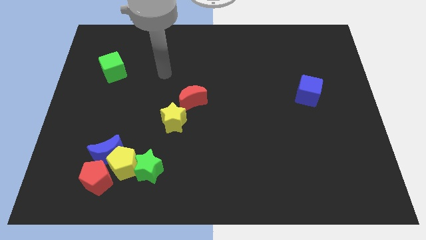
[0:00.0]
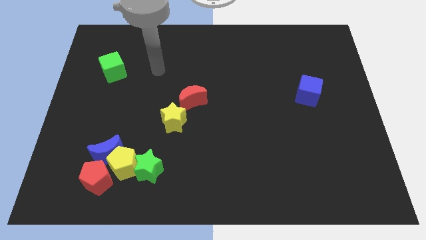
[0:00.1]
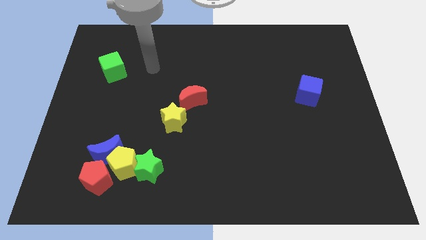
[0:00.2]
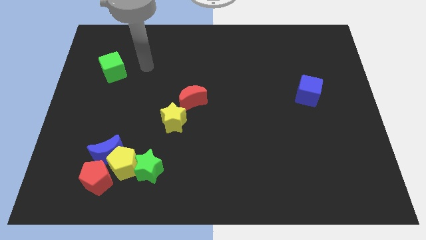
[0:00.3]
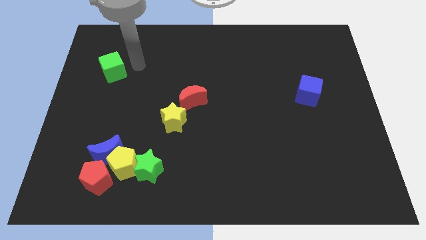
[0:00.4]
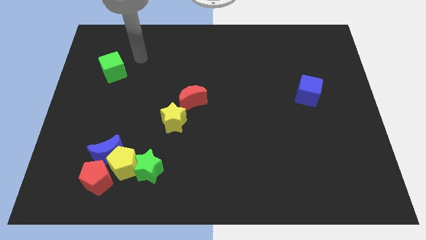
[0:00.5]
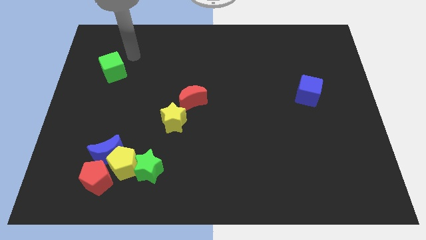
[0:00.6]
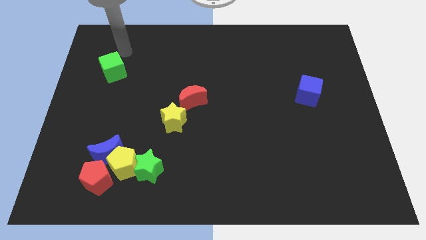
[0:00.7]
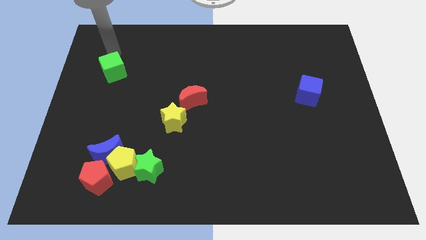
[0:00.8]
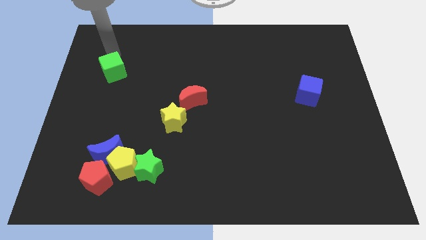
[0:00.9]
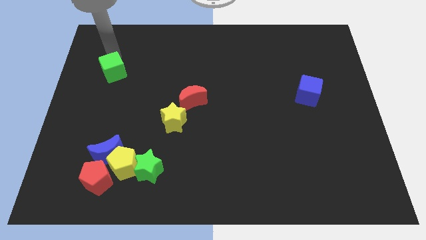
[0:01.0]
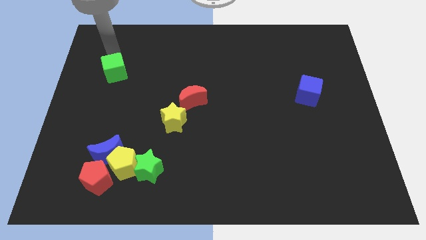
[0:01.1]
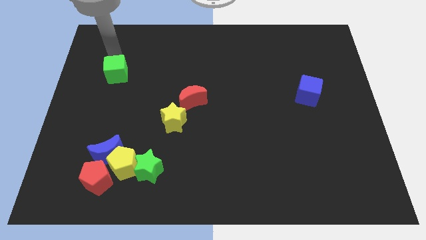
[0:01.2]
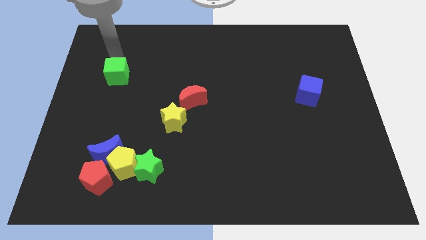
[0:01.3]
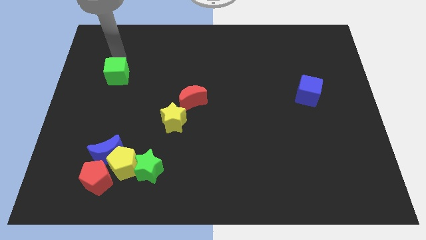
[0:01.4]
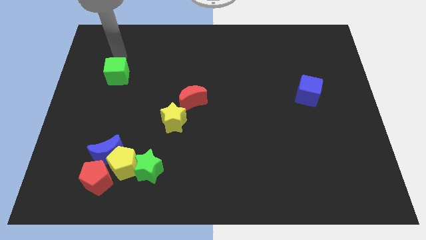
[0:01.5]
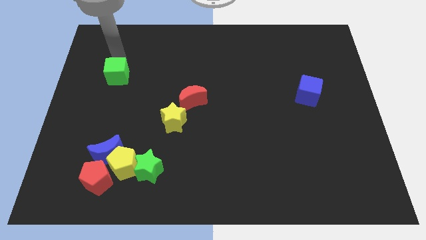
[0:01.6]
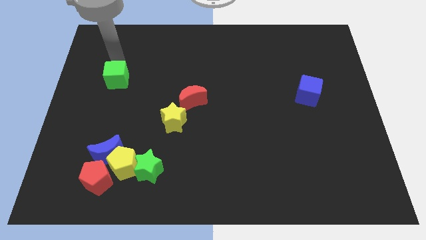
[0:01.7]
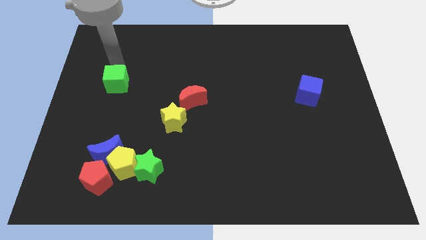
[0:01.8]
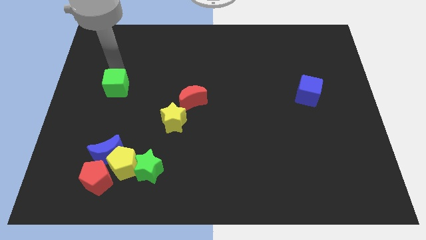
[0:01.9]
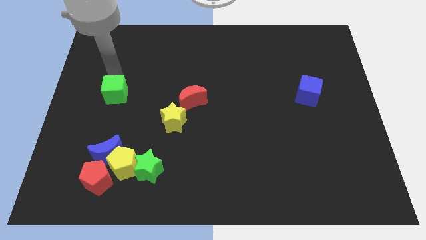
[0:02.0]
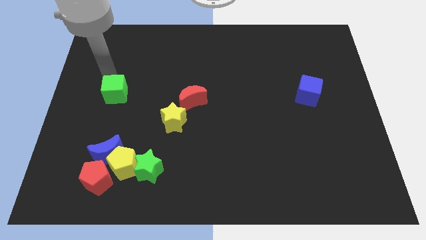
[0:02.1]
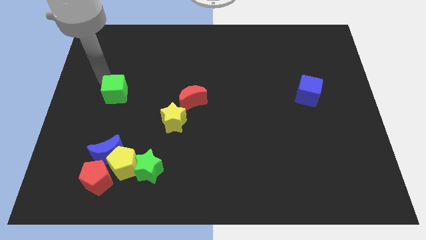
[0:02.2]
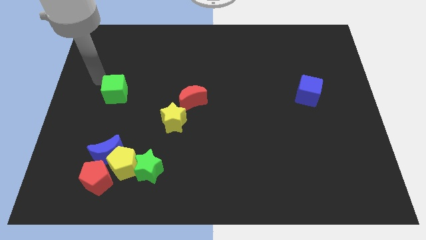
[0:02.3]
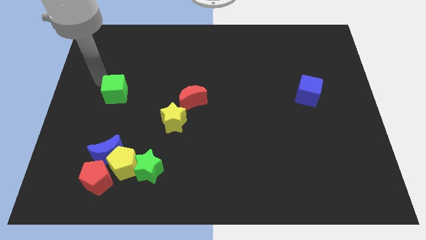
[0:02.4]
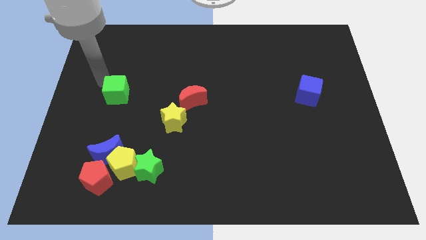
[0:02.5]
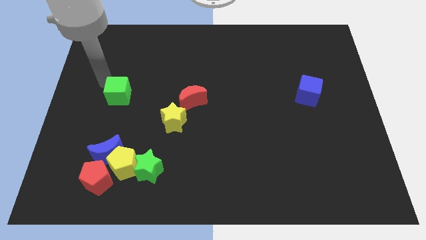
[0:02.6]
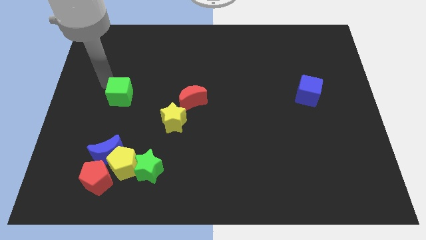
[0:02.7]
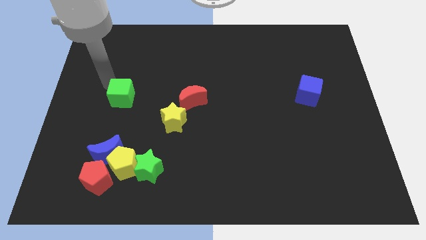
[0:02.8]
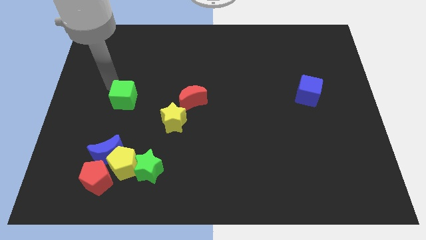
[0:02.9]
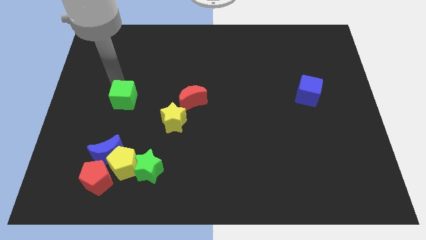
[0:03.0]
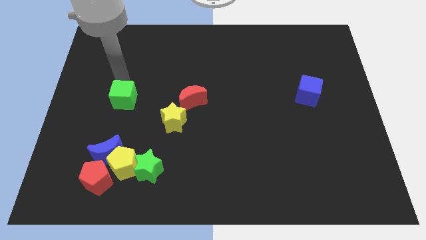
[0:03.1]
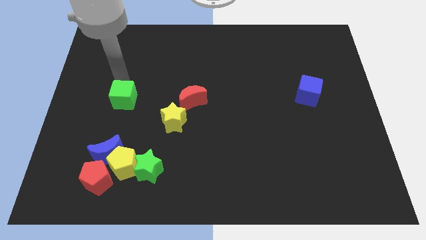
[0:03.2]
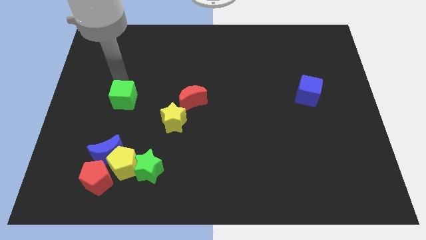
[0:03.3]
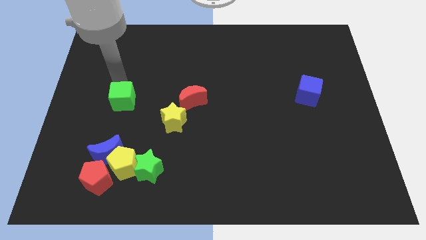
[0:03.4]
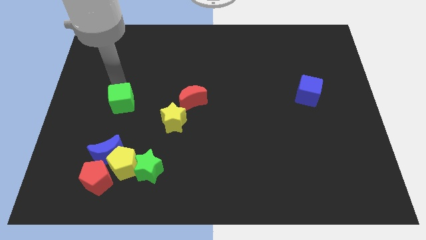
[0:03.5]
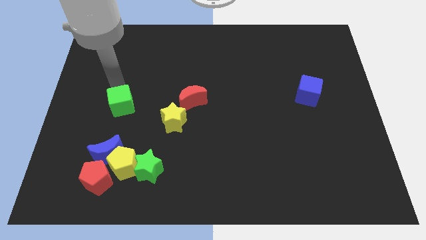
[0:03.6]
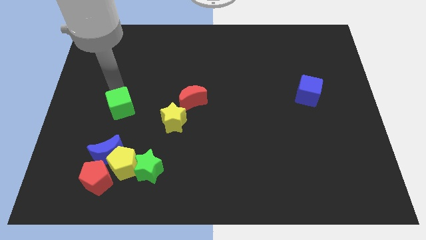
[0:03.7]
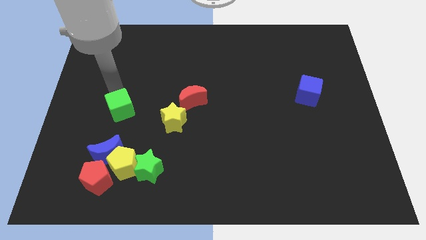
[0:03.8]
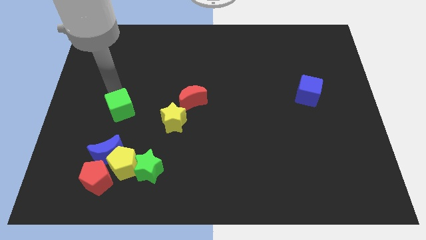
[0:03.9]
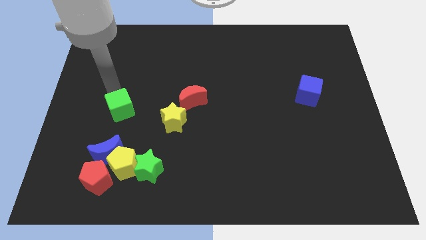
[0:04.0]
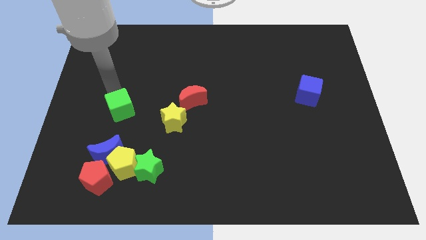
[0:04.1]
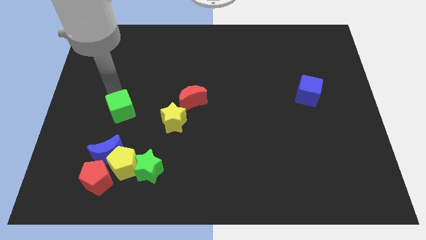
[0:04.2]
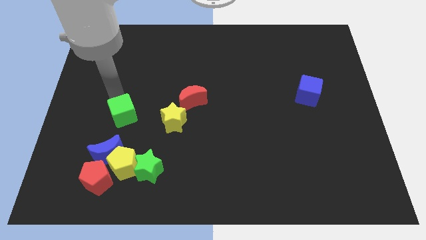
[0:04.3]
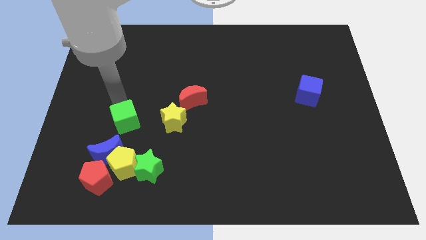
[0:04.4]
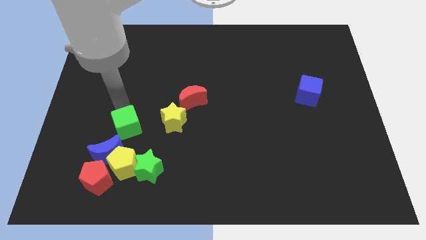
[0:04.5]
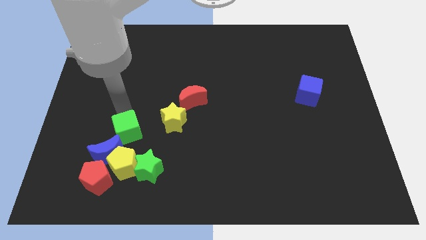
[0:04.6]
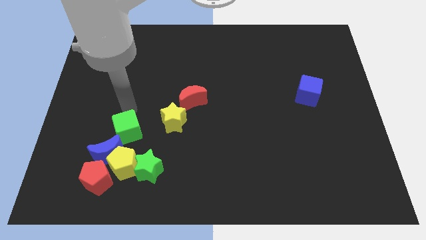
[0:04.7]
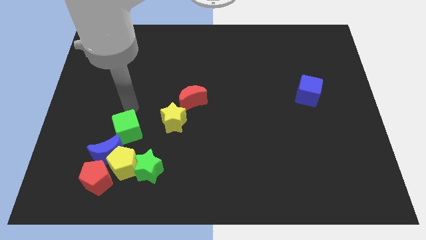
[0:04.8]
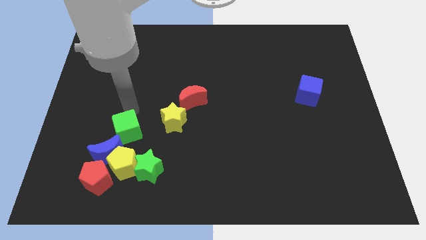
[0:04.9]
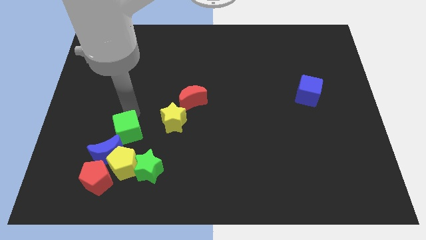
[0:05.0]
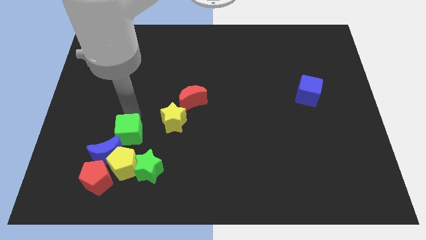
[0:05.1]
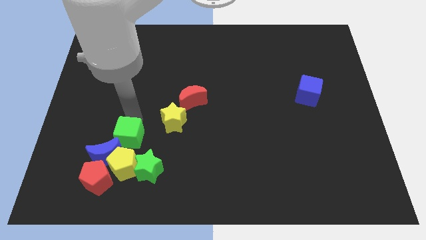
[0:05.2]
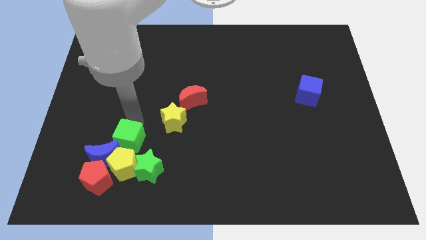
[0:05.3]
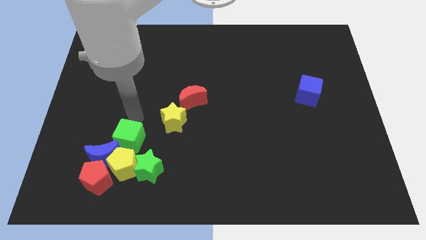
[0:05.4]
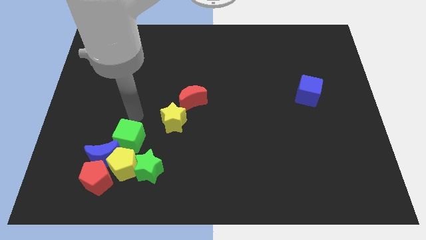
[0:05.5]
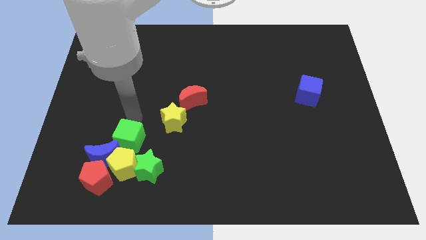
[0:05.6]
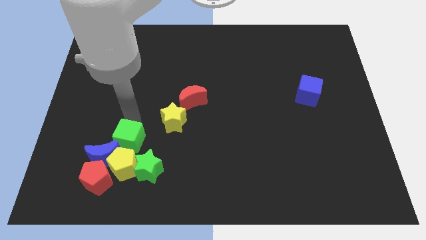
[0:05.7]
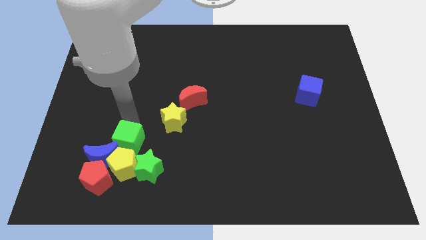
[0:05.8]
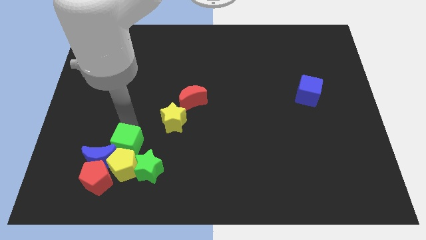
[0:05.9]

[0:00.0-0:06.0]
push the green cube close to the yellow pentagon

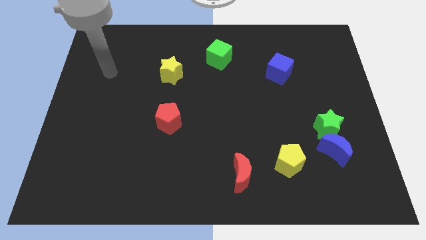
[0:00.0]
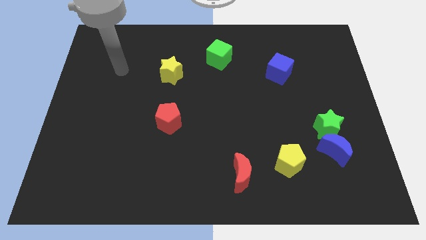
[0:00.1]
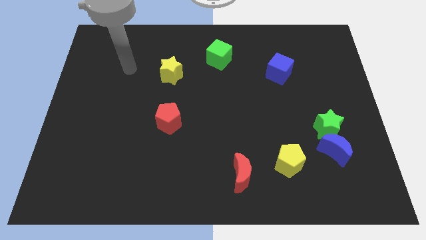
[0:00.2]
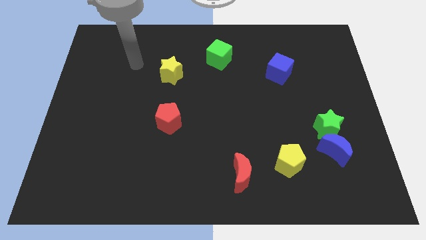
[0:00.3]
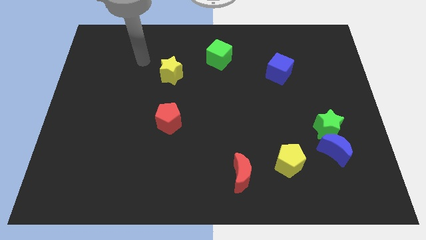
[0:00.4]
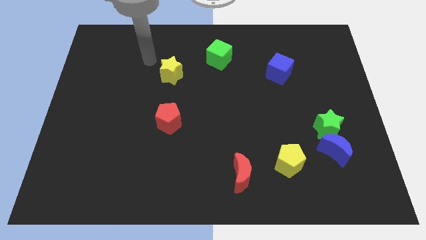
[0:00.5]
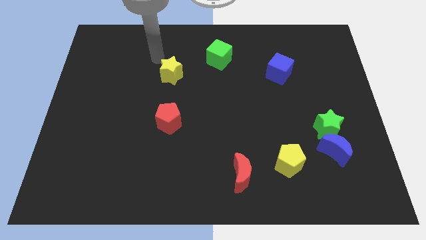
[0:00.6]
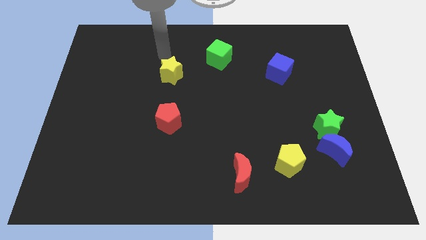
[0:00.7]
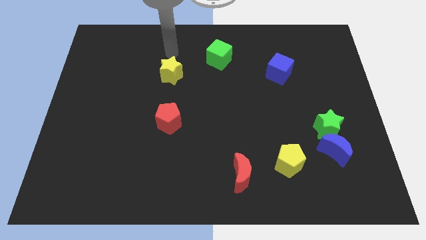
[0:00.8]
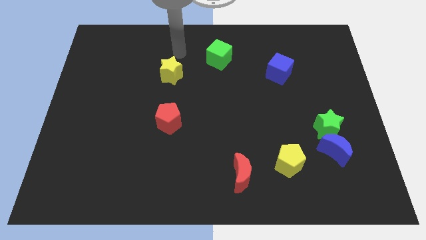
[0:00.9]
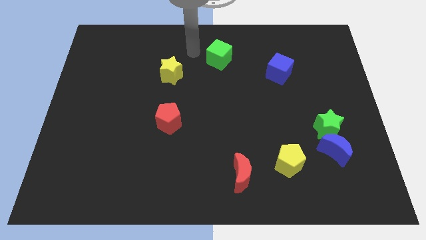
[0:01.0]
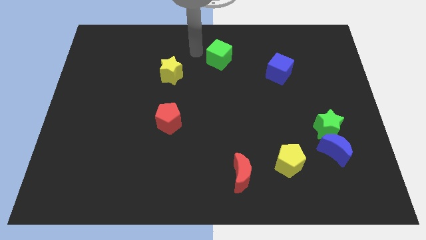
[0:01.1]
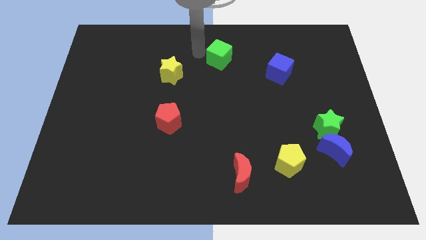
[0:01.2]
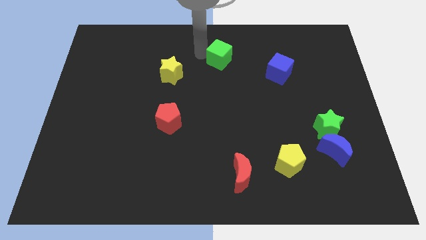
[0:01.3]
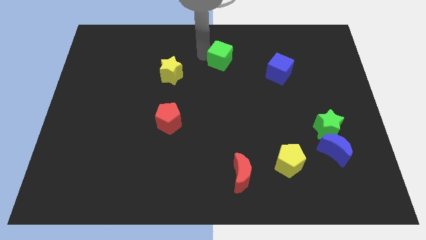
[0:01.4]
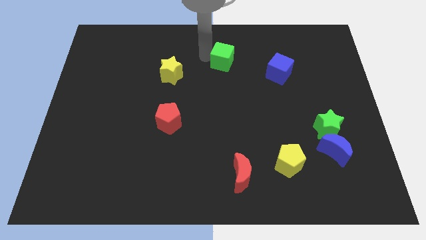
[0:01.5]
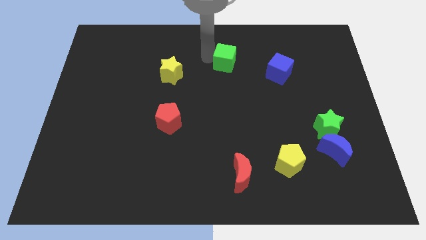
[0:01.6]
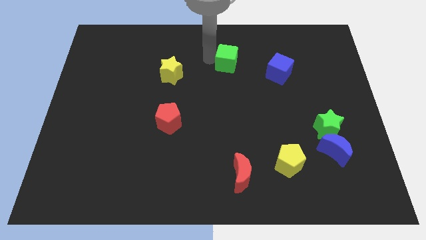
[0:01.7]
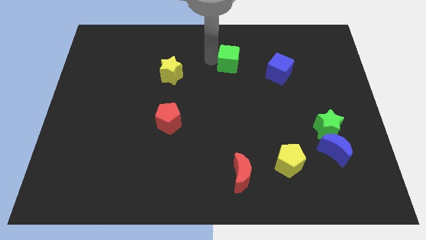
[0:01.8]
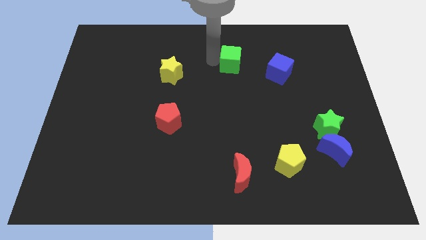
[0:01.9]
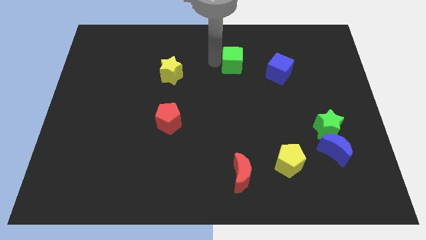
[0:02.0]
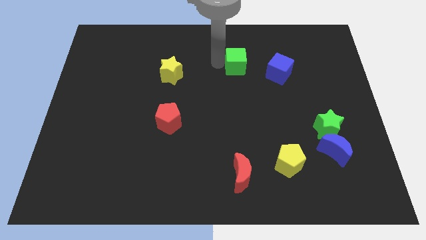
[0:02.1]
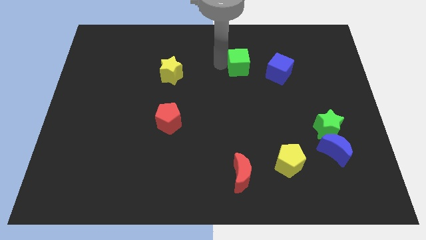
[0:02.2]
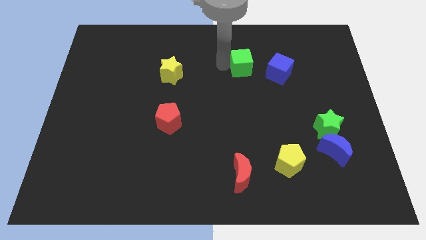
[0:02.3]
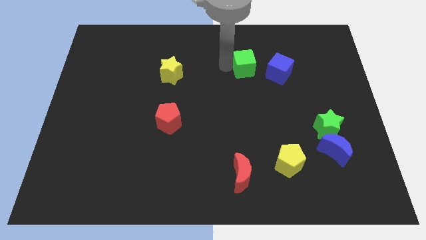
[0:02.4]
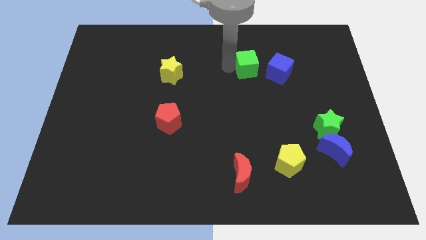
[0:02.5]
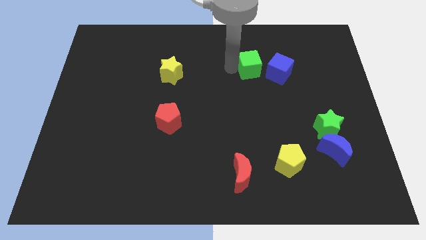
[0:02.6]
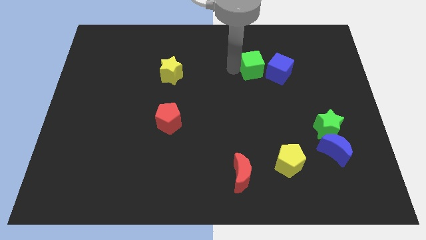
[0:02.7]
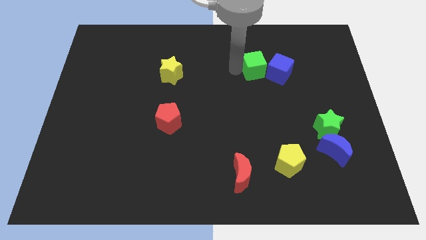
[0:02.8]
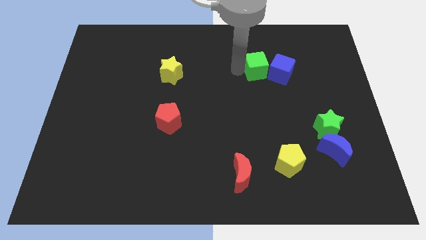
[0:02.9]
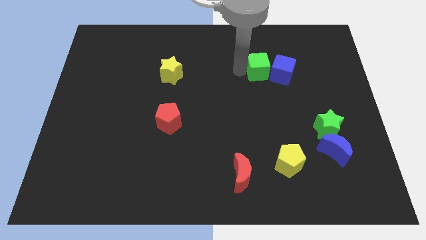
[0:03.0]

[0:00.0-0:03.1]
push the green cube next to the blue cube
